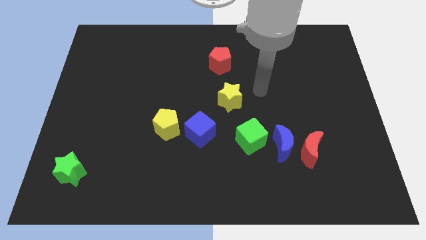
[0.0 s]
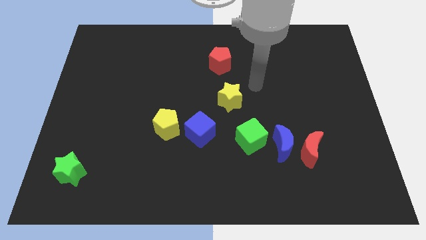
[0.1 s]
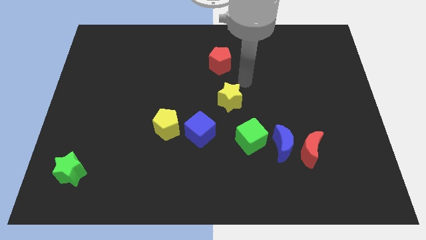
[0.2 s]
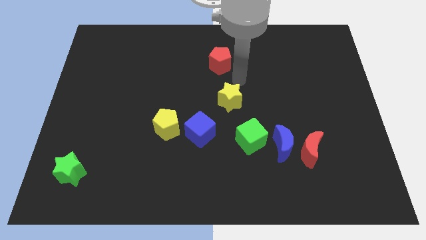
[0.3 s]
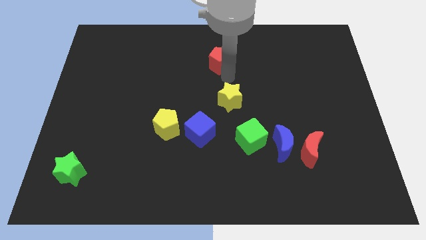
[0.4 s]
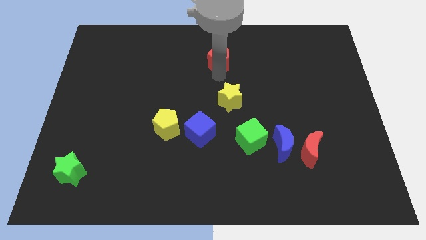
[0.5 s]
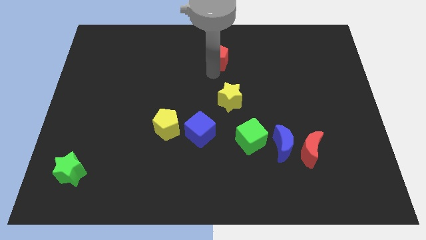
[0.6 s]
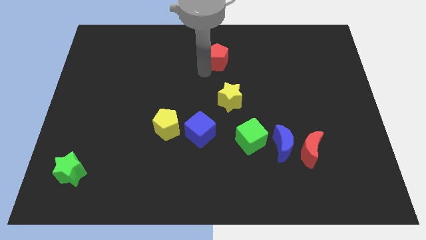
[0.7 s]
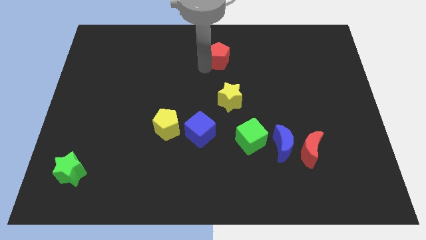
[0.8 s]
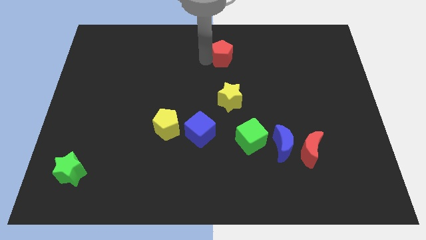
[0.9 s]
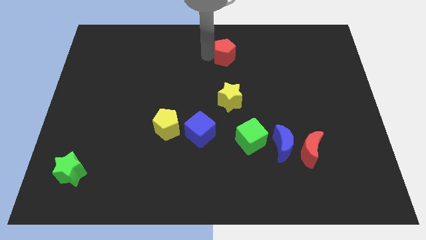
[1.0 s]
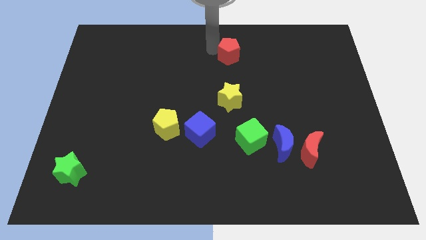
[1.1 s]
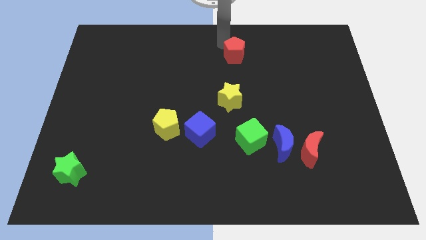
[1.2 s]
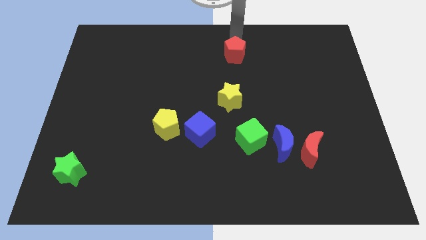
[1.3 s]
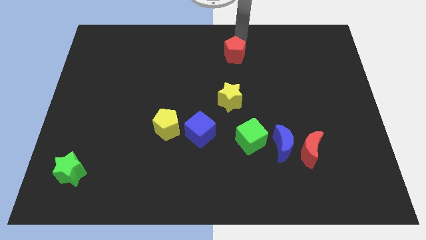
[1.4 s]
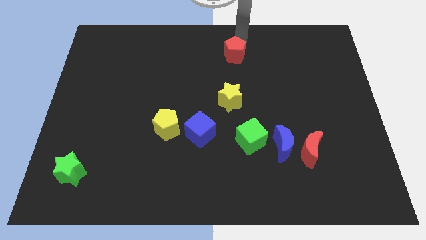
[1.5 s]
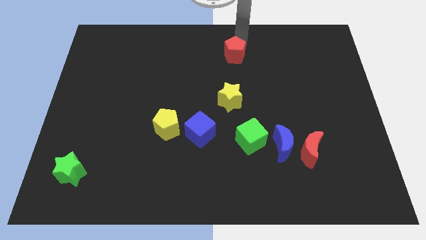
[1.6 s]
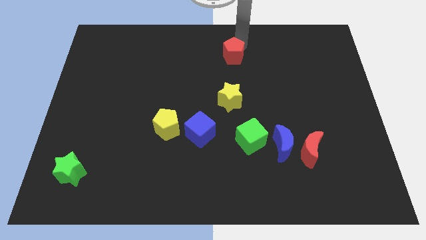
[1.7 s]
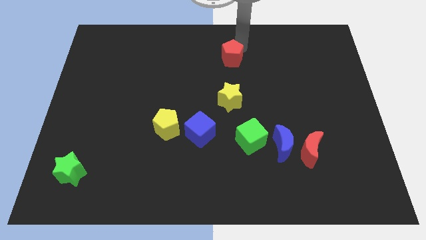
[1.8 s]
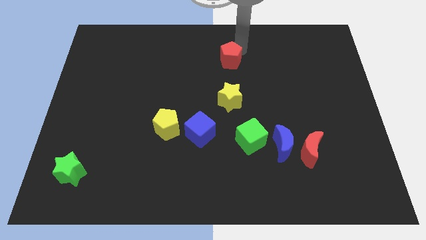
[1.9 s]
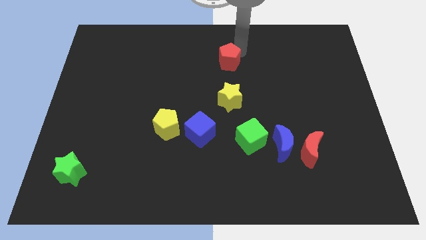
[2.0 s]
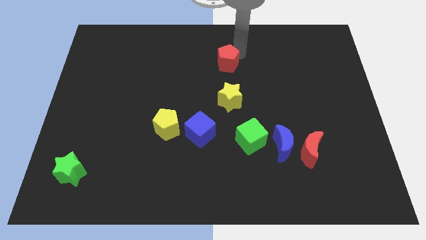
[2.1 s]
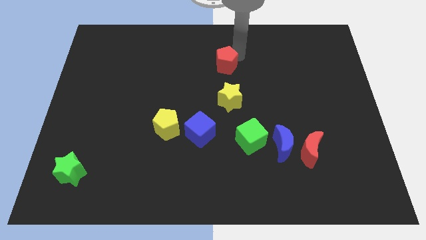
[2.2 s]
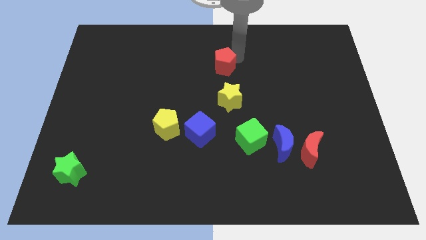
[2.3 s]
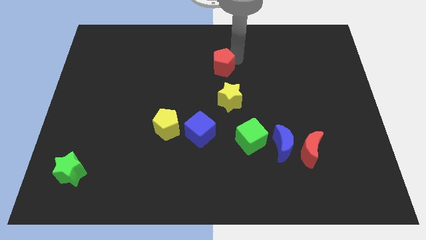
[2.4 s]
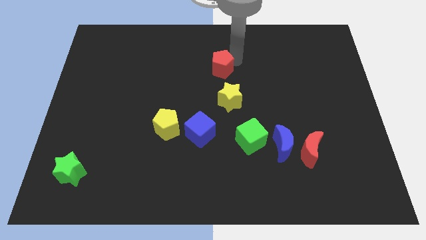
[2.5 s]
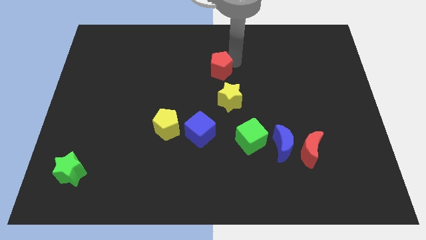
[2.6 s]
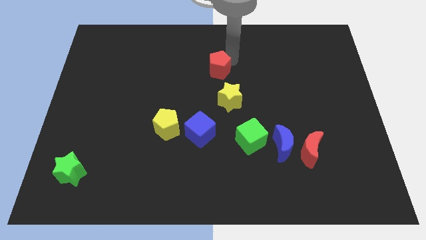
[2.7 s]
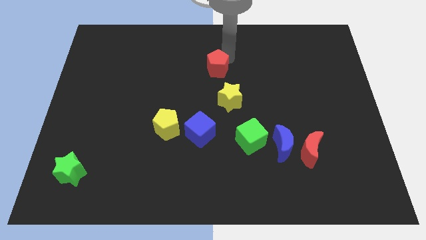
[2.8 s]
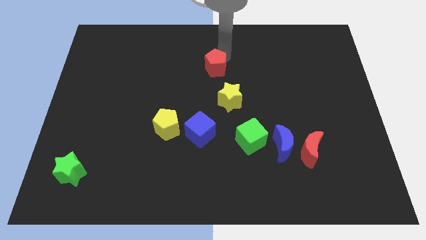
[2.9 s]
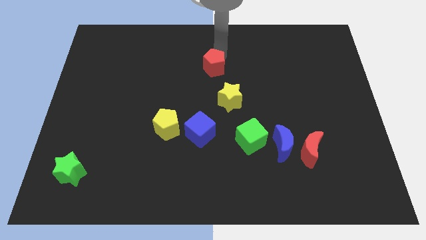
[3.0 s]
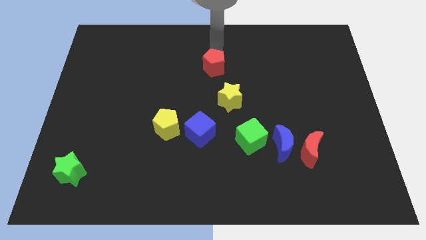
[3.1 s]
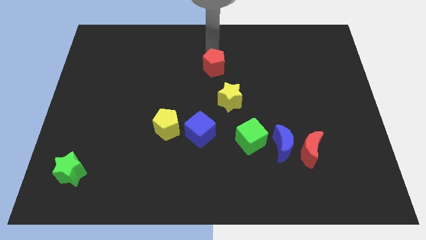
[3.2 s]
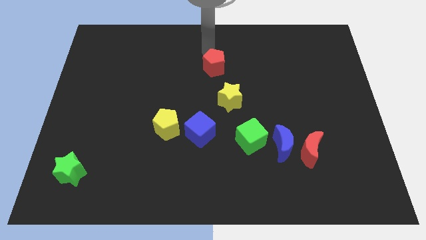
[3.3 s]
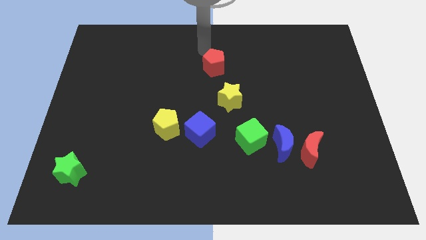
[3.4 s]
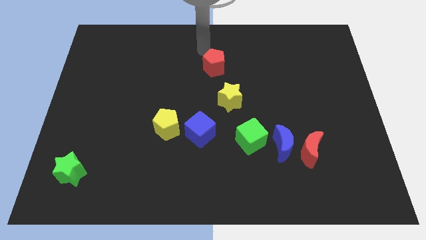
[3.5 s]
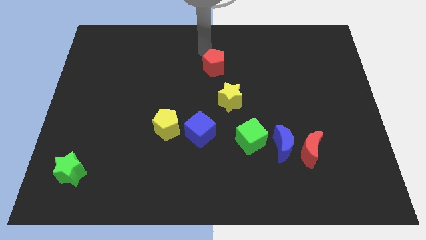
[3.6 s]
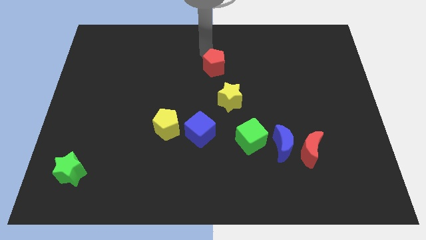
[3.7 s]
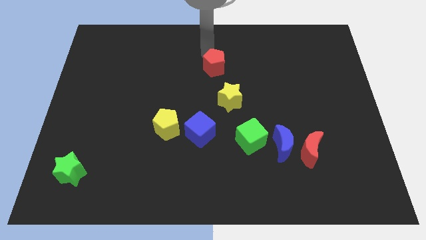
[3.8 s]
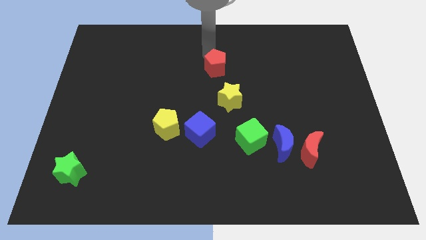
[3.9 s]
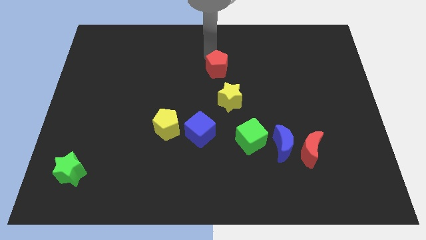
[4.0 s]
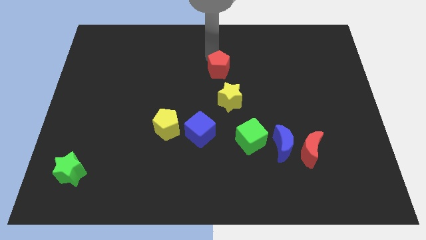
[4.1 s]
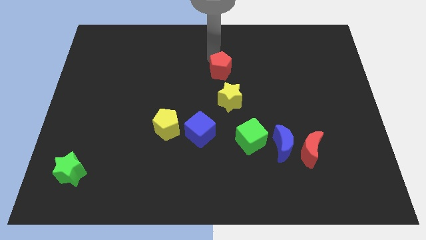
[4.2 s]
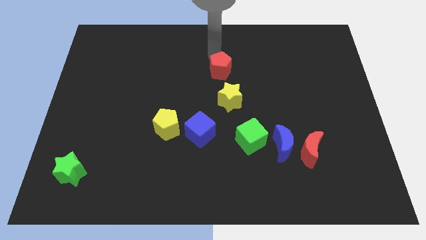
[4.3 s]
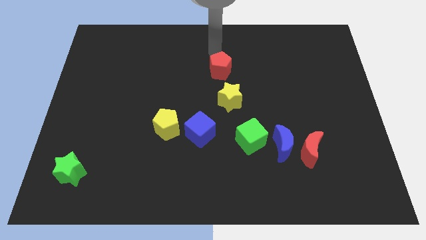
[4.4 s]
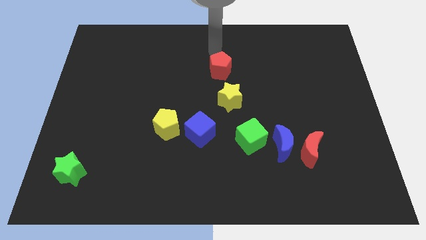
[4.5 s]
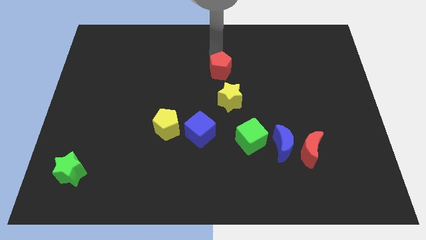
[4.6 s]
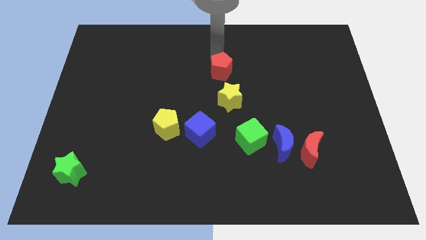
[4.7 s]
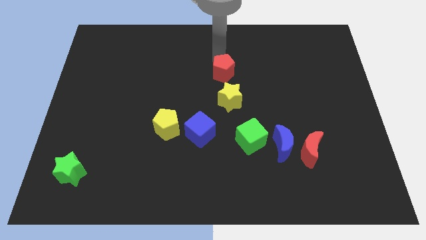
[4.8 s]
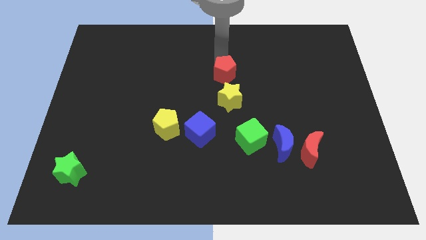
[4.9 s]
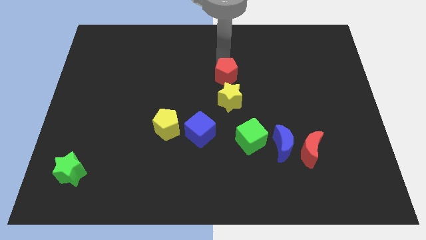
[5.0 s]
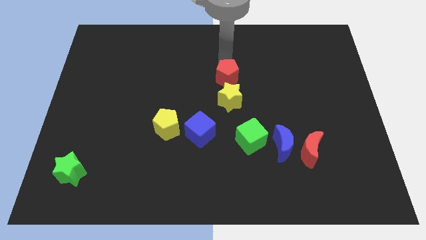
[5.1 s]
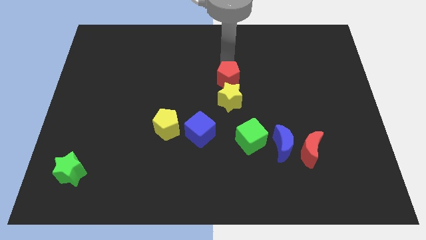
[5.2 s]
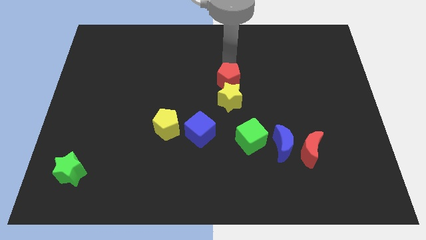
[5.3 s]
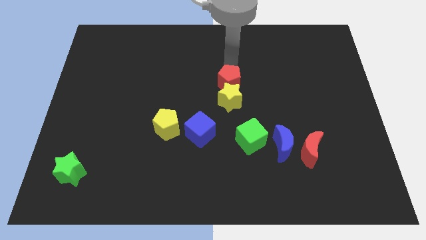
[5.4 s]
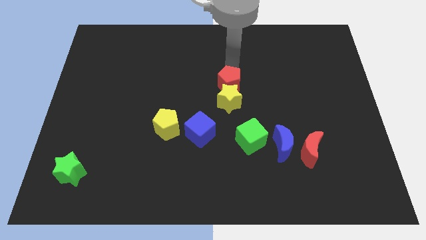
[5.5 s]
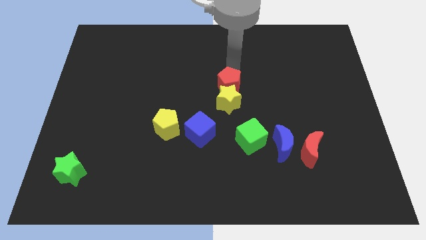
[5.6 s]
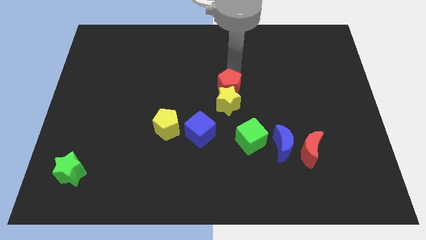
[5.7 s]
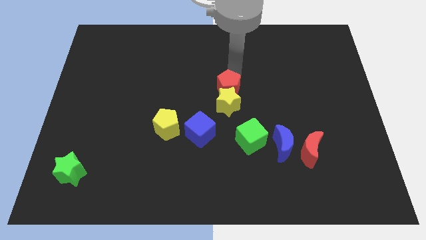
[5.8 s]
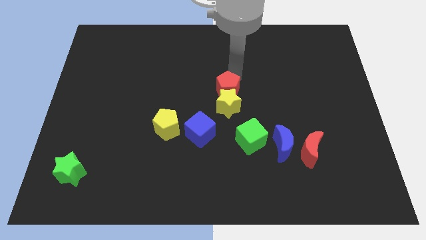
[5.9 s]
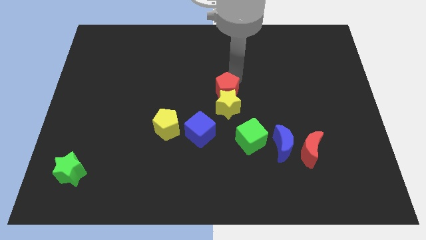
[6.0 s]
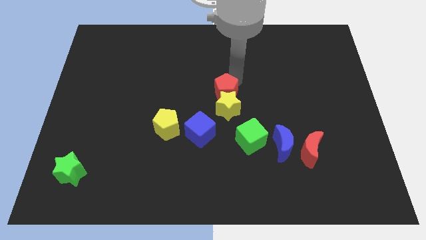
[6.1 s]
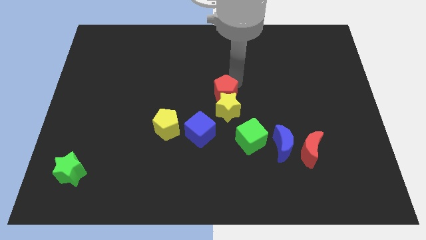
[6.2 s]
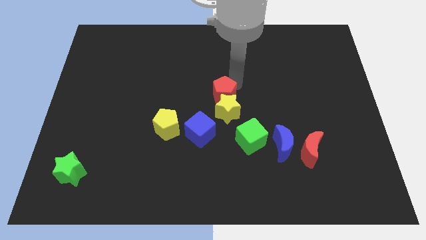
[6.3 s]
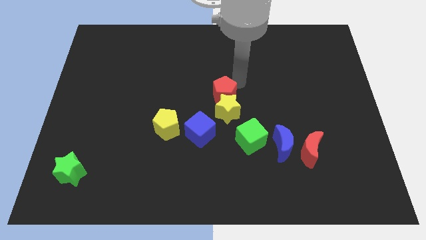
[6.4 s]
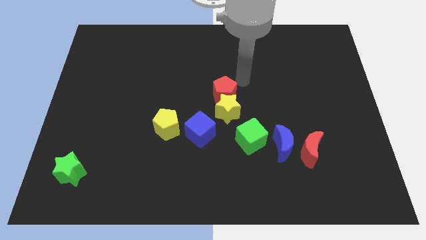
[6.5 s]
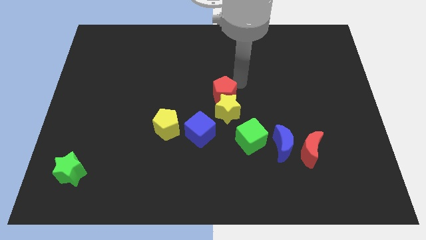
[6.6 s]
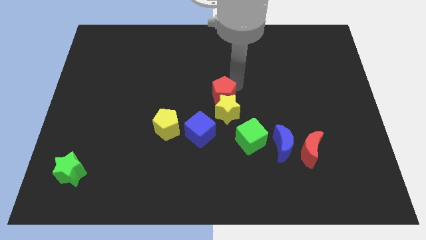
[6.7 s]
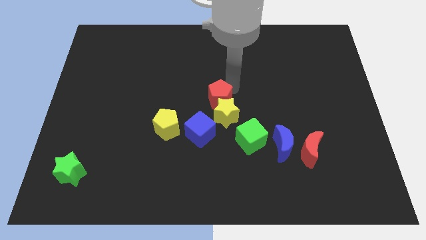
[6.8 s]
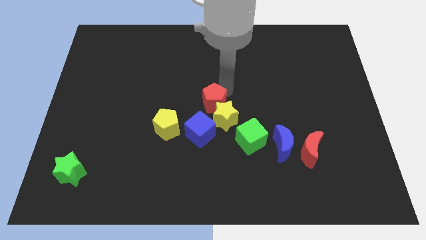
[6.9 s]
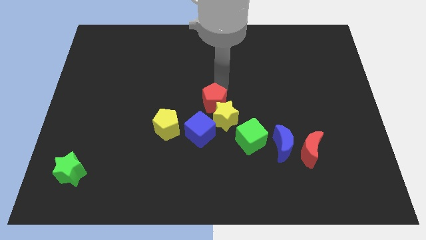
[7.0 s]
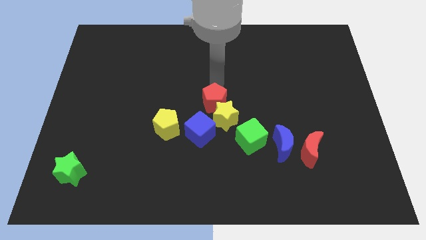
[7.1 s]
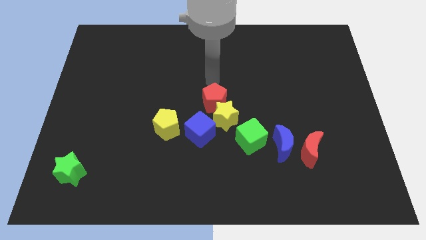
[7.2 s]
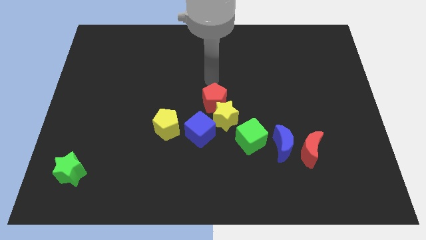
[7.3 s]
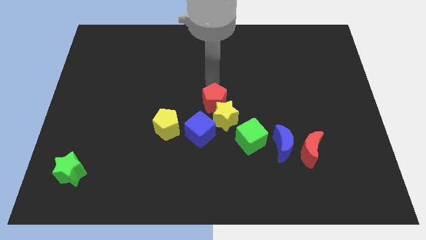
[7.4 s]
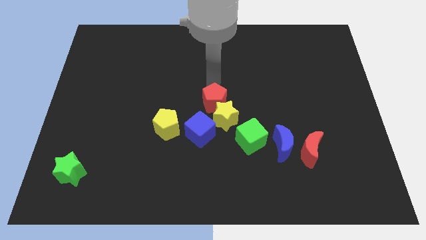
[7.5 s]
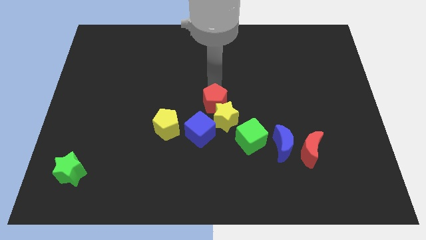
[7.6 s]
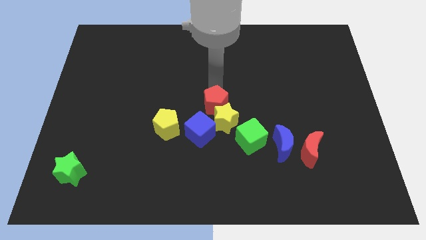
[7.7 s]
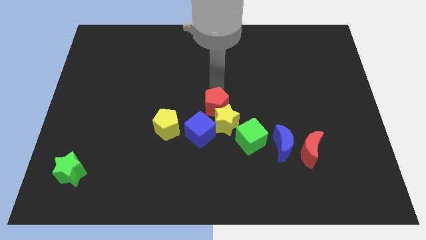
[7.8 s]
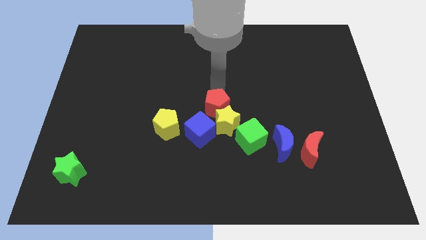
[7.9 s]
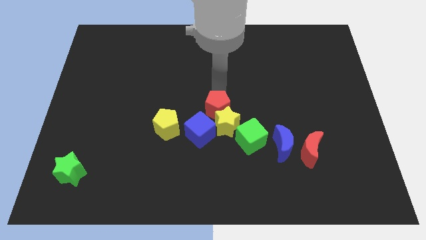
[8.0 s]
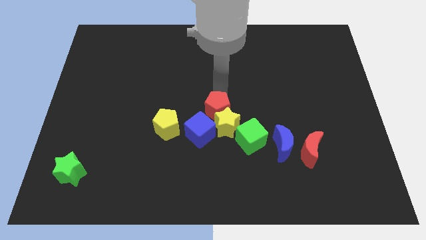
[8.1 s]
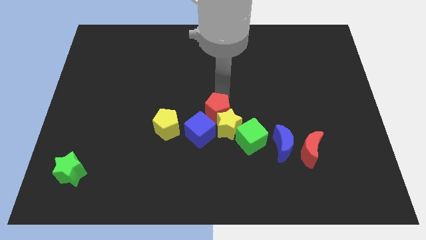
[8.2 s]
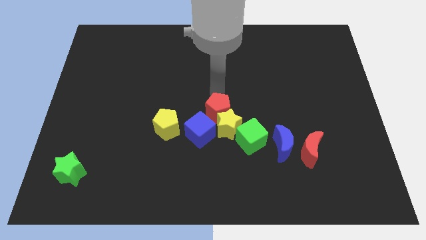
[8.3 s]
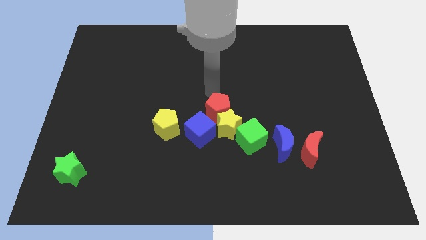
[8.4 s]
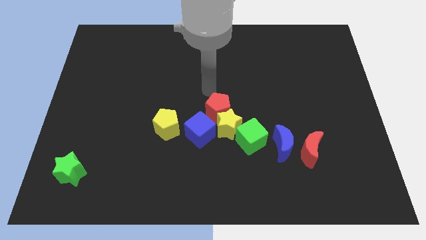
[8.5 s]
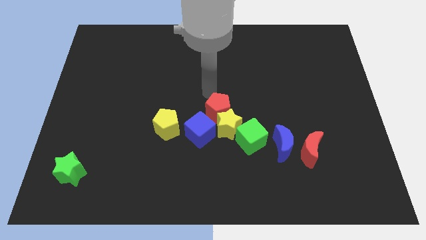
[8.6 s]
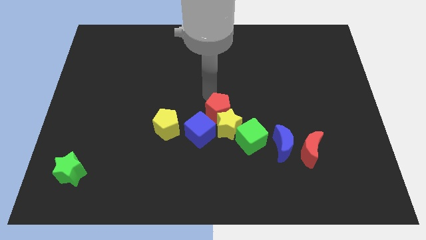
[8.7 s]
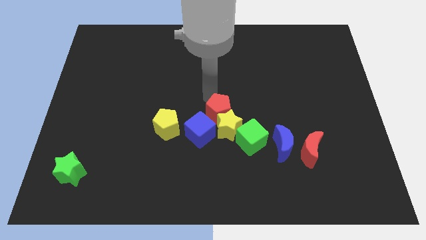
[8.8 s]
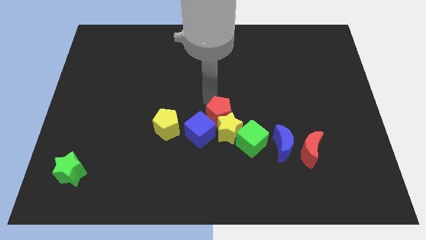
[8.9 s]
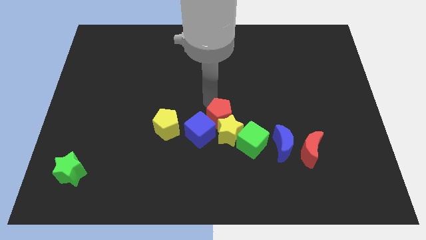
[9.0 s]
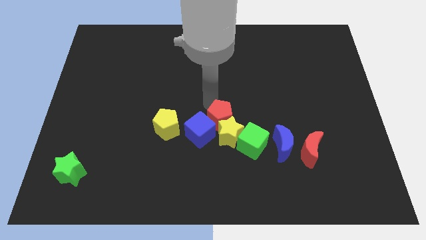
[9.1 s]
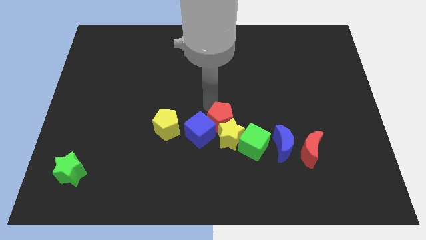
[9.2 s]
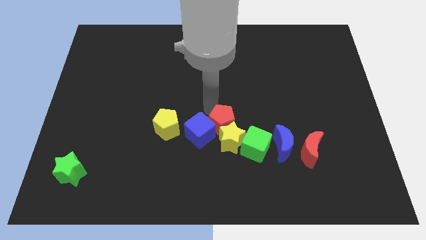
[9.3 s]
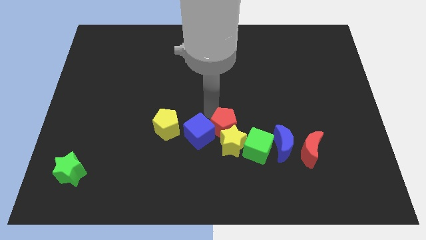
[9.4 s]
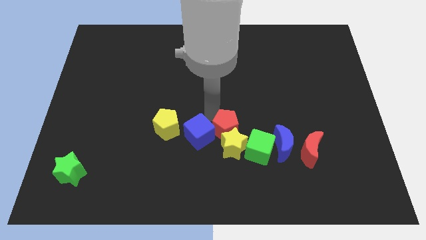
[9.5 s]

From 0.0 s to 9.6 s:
slide the red pentagon down
